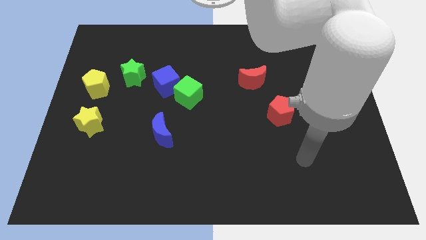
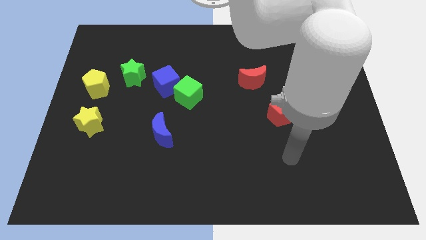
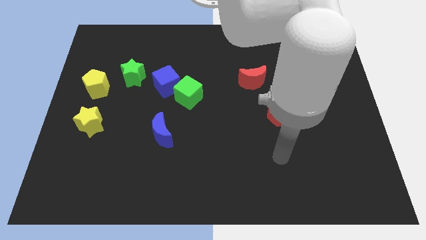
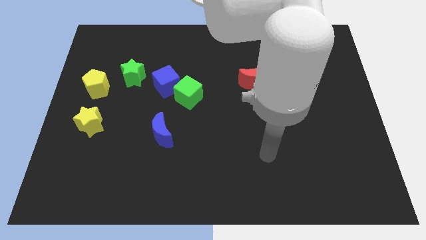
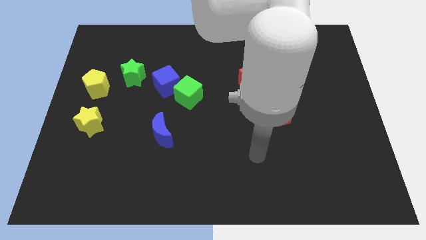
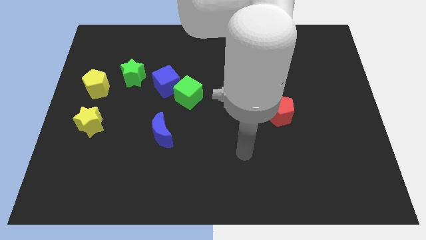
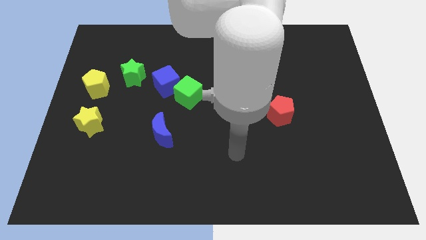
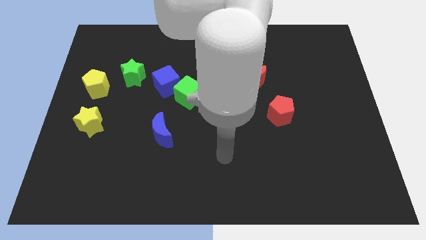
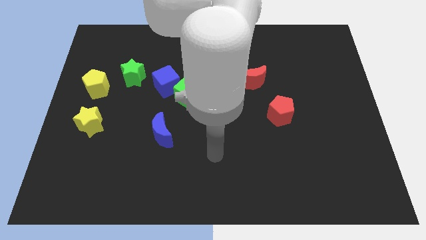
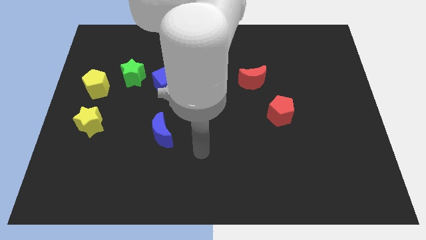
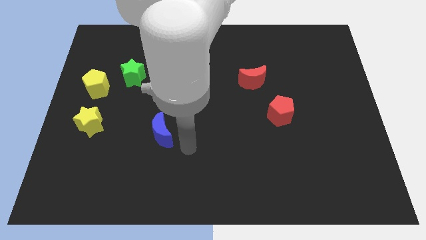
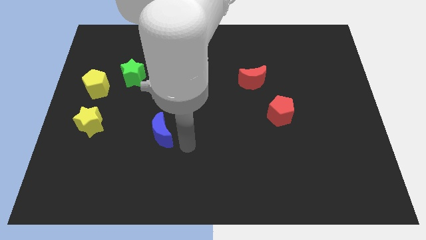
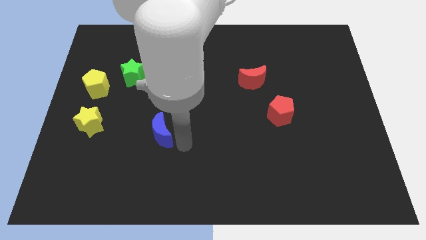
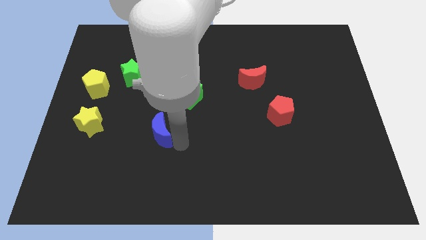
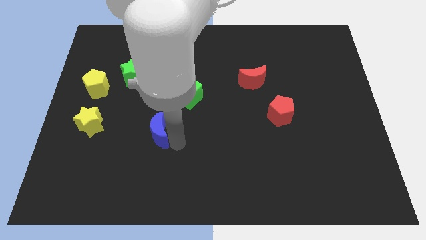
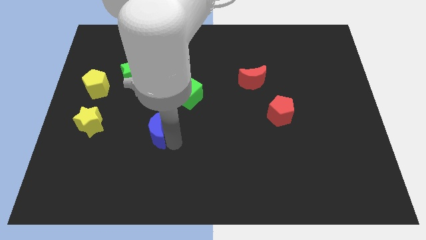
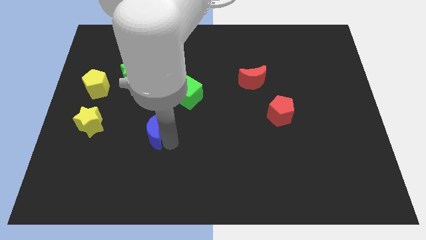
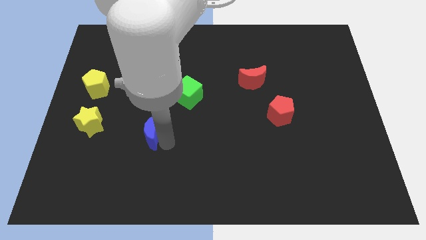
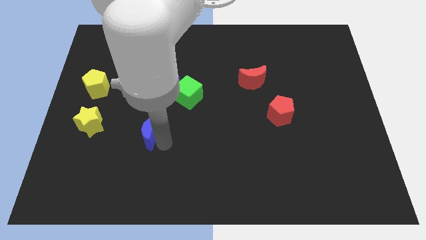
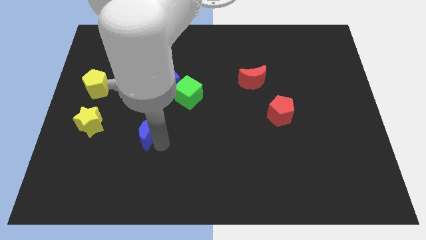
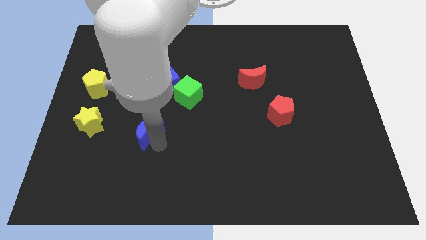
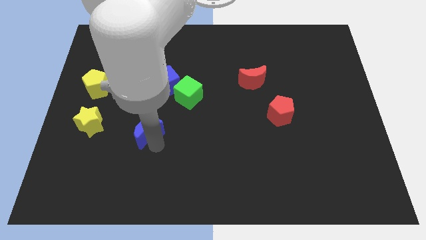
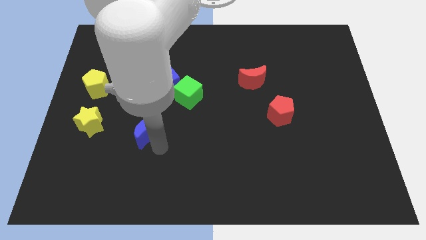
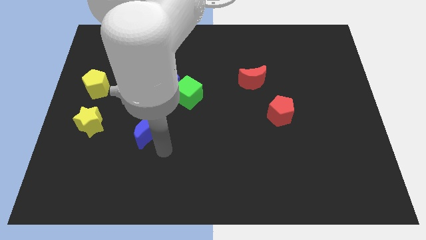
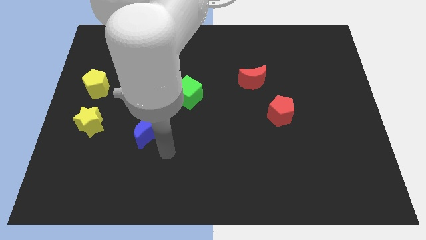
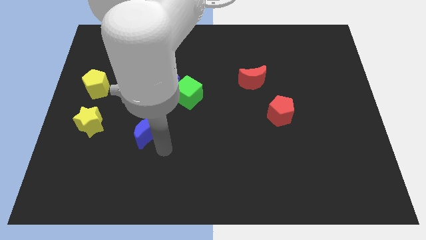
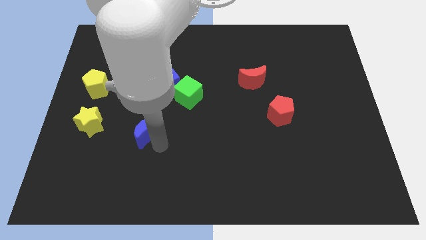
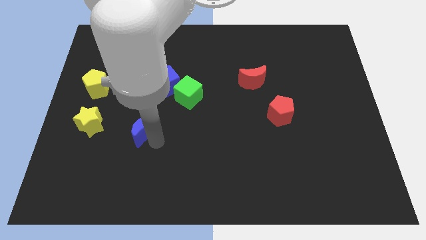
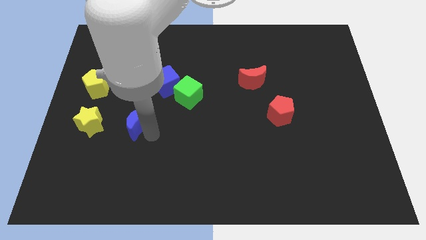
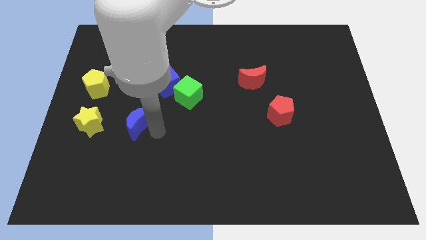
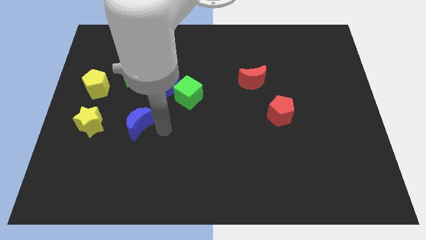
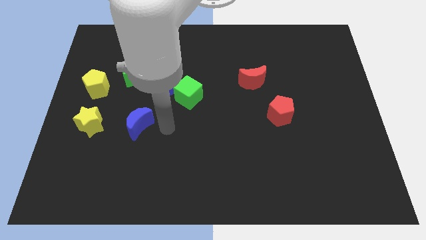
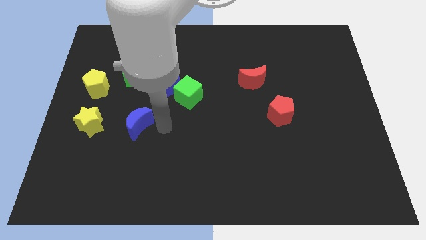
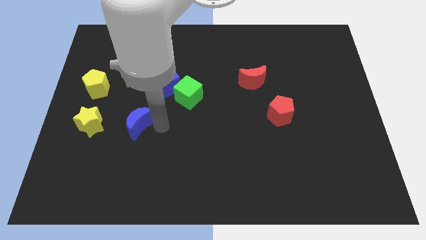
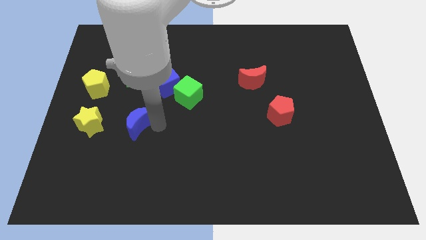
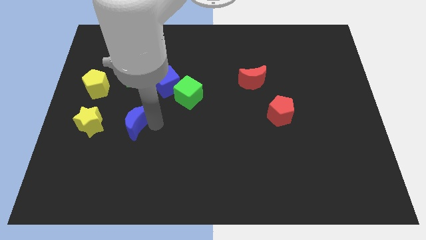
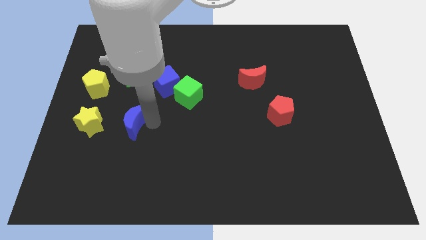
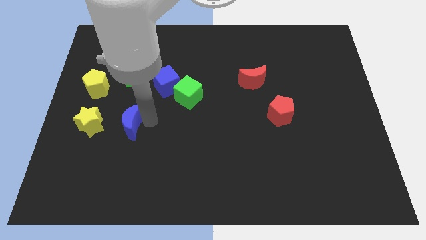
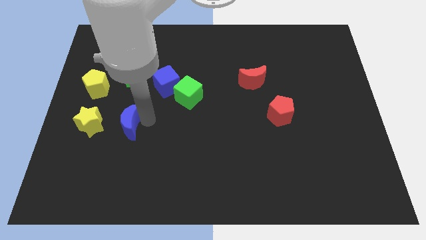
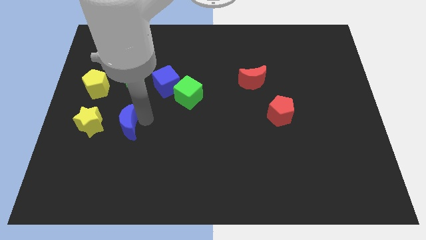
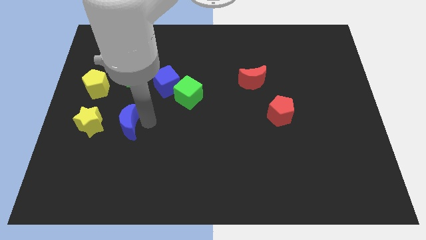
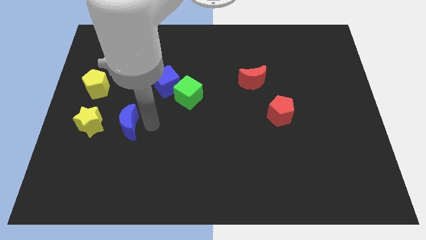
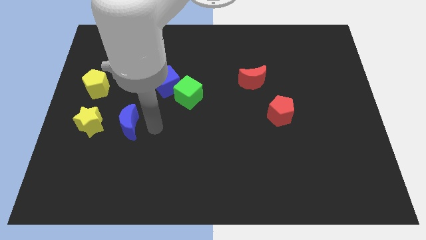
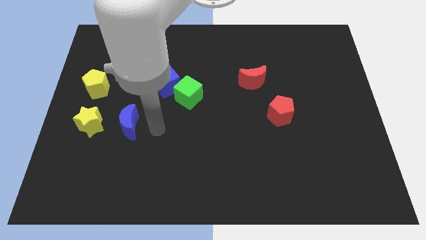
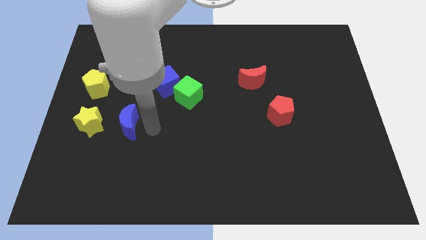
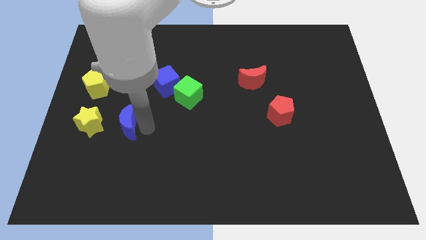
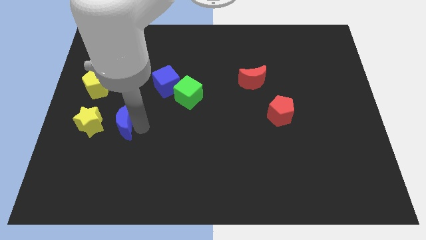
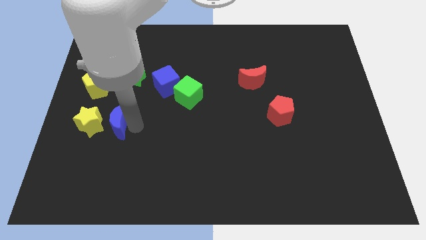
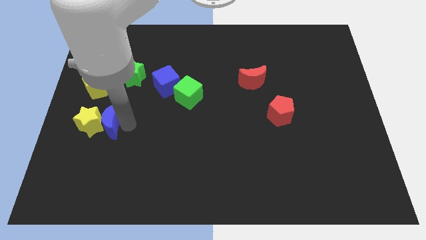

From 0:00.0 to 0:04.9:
slide the blue moon to the yellow star

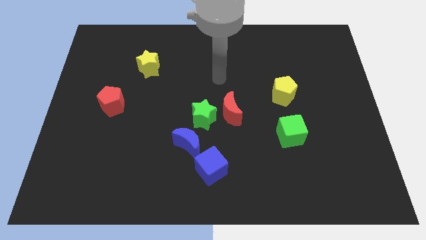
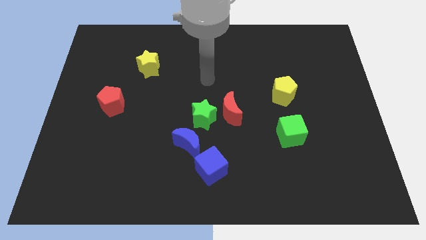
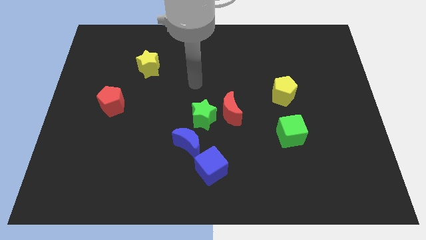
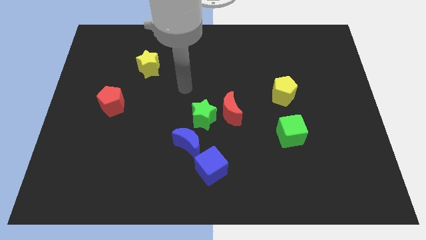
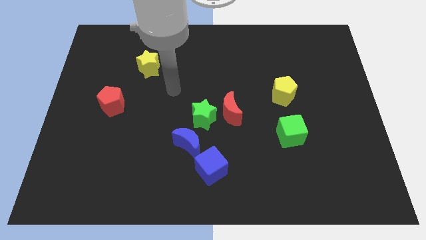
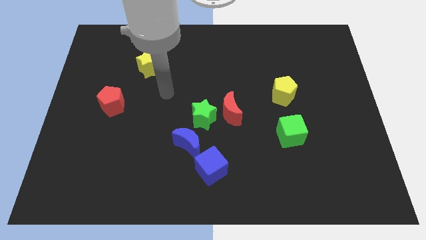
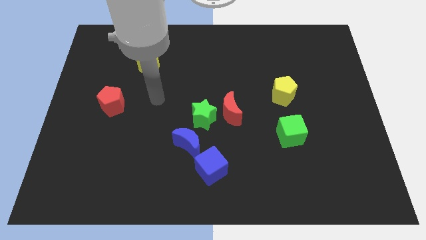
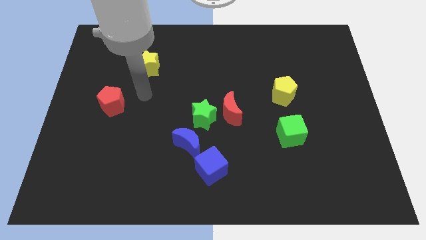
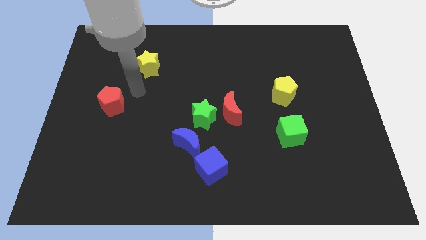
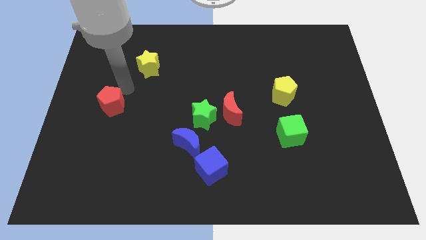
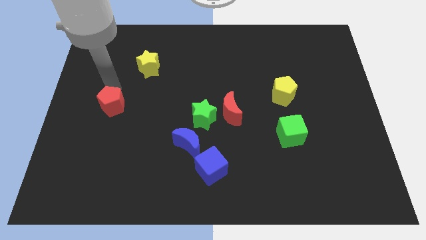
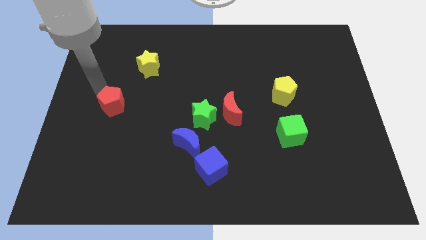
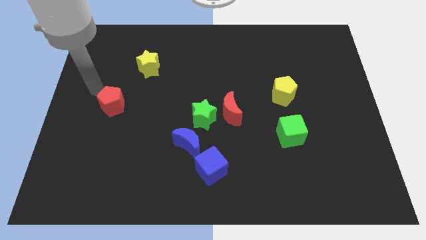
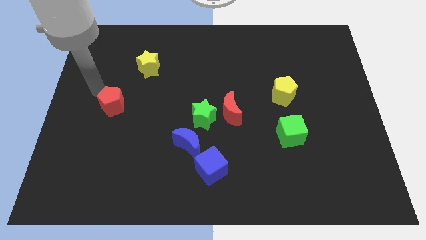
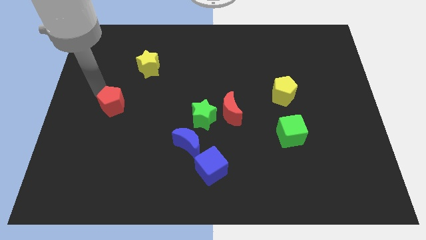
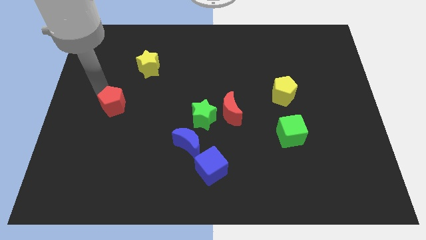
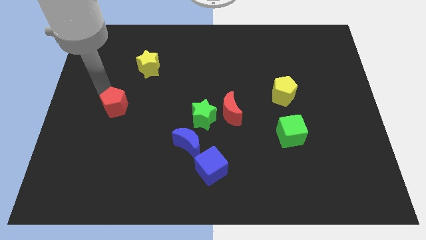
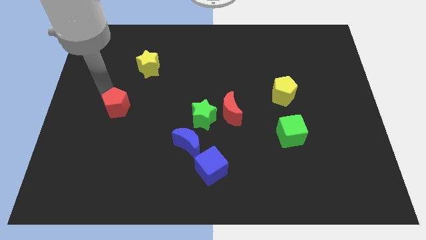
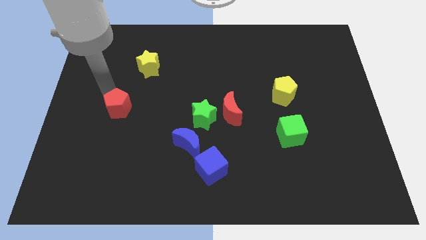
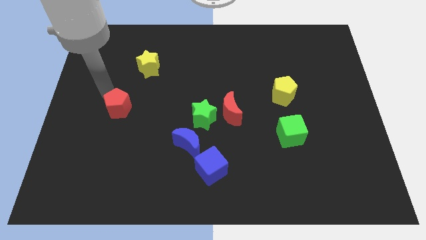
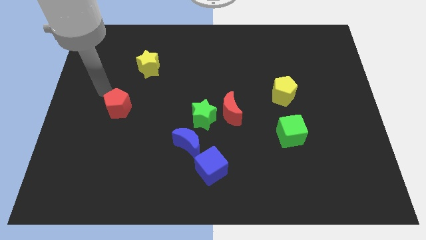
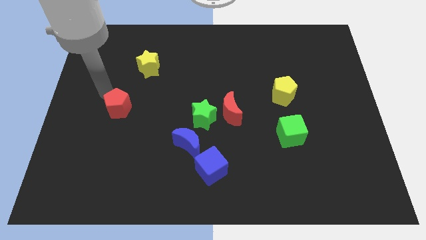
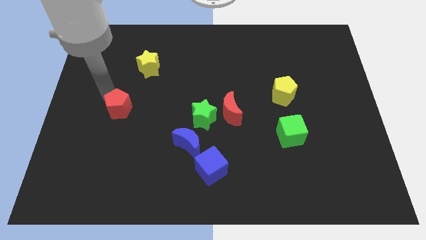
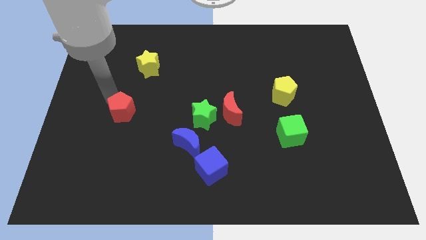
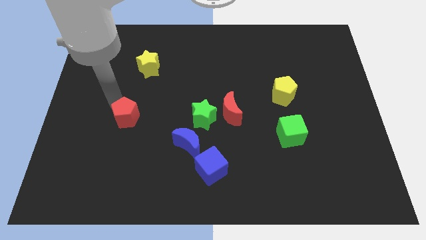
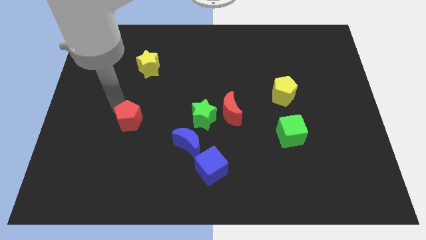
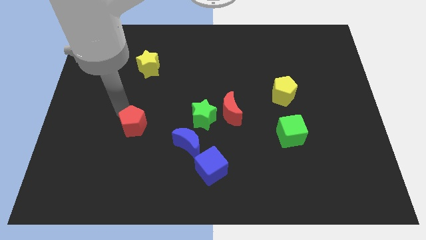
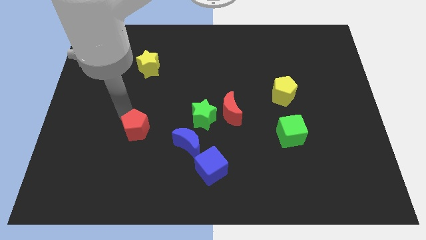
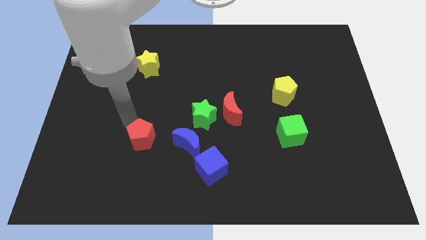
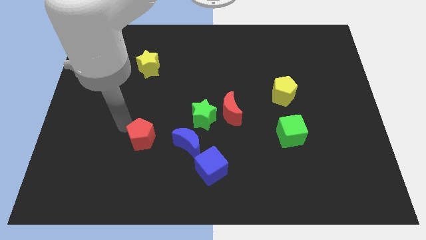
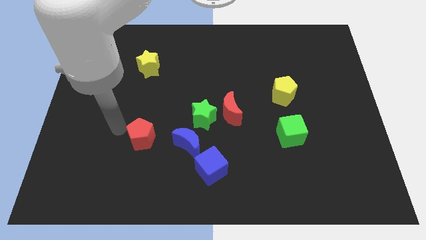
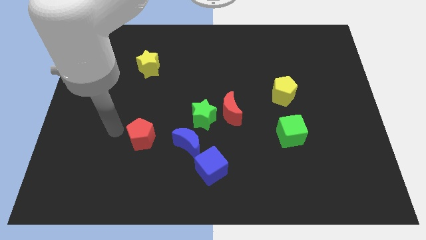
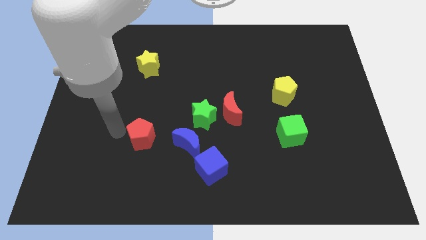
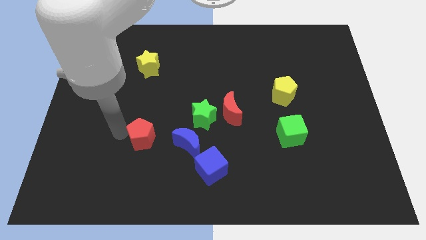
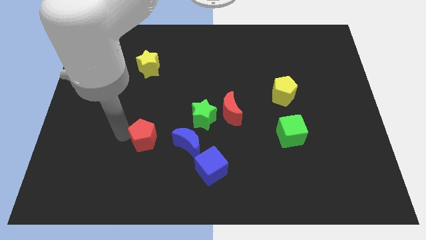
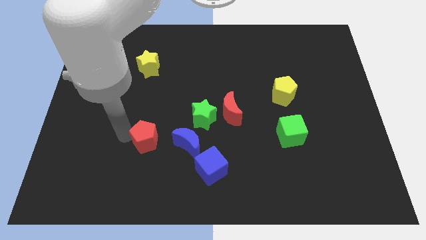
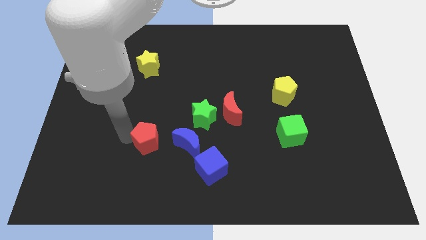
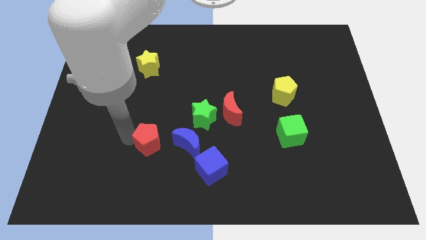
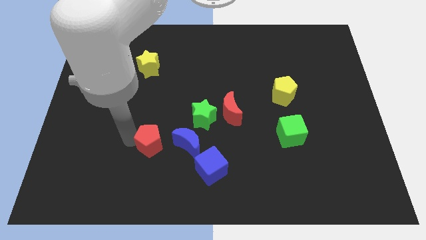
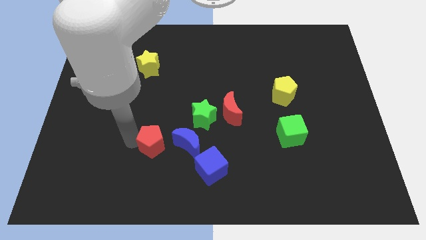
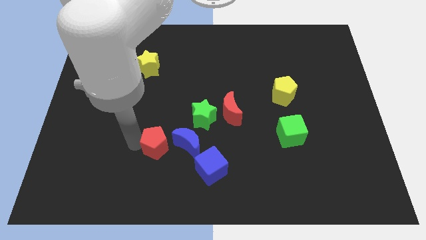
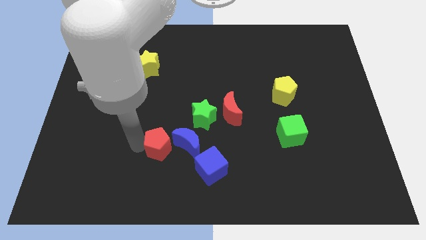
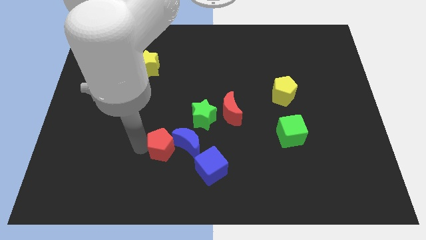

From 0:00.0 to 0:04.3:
move the red pentagon close to the blue moon
